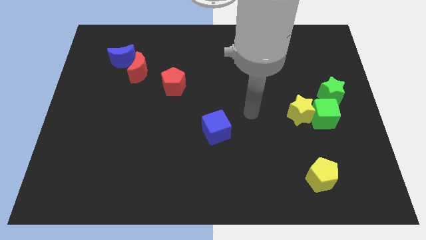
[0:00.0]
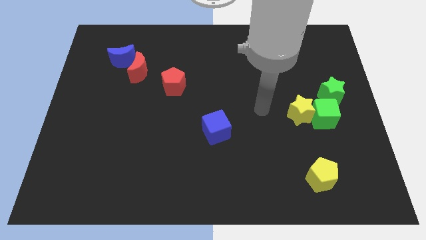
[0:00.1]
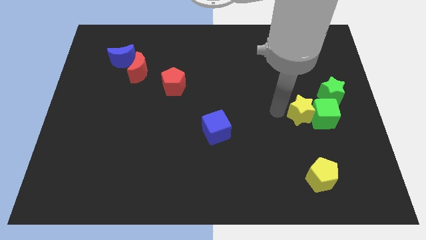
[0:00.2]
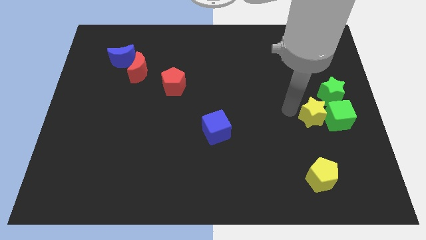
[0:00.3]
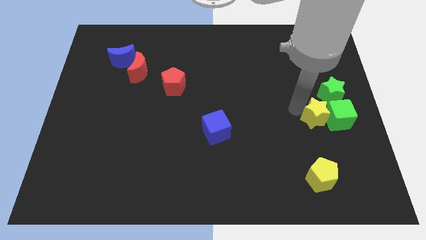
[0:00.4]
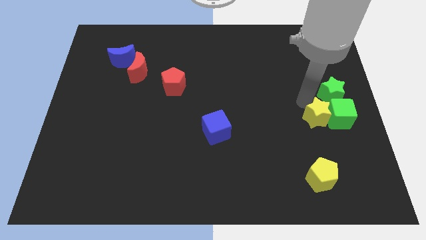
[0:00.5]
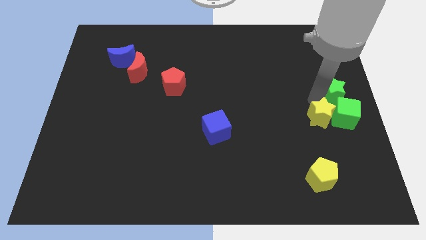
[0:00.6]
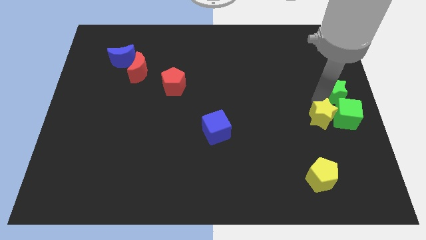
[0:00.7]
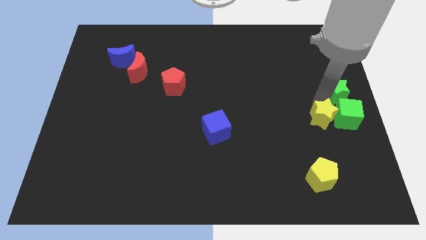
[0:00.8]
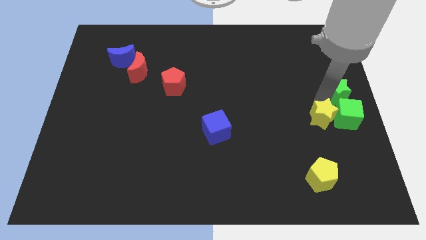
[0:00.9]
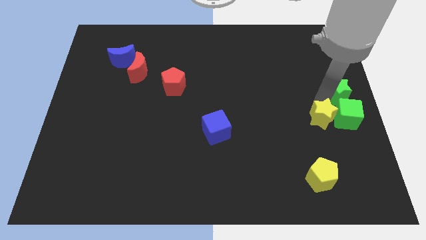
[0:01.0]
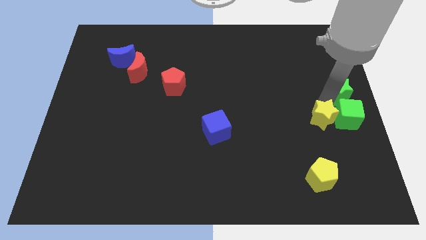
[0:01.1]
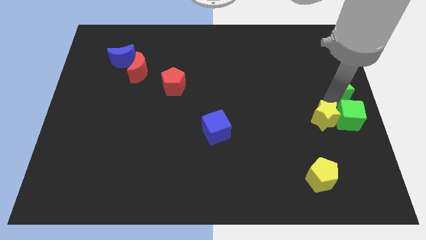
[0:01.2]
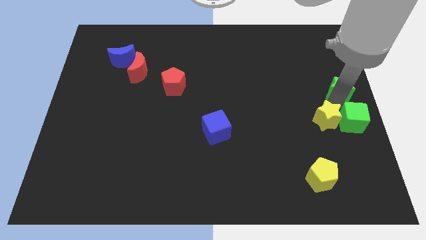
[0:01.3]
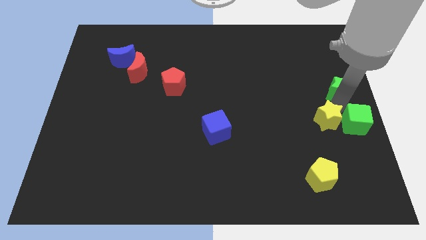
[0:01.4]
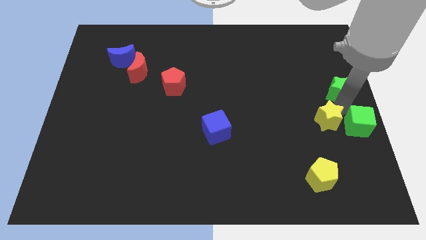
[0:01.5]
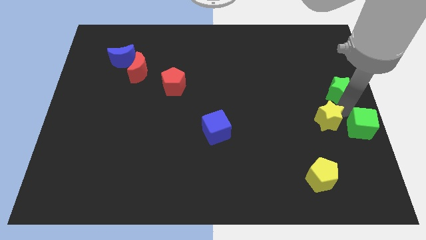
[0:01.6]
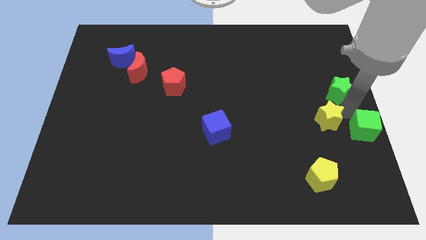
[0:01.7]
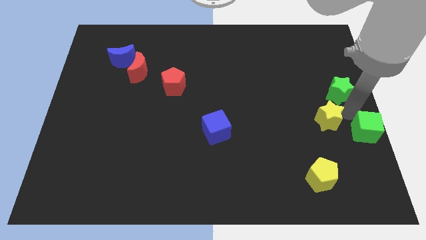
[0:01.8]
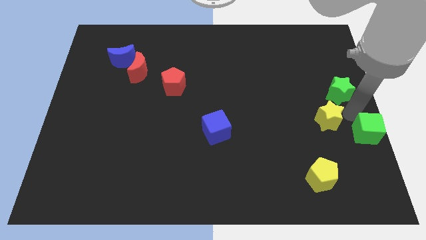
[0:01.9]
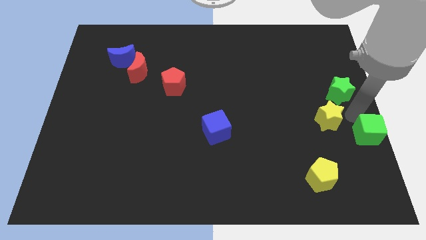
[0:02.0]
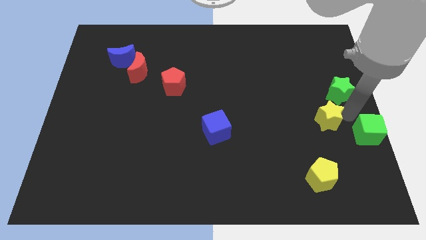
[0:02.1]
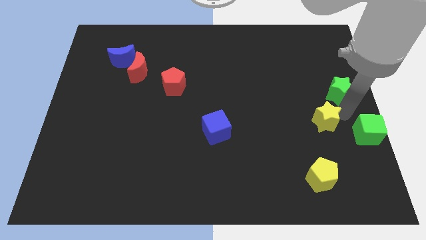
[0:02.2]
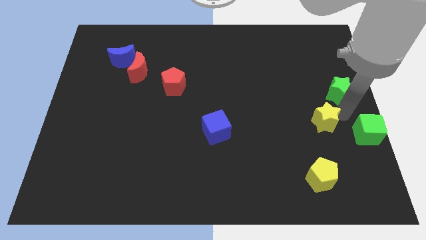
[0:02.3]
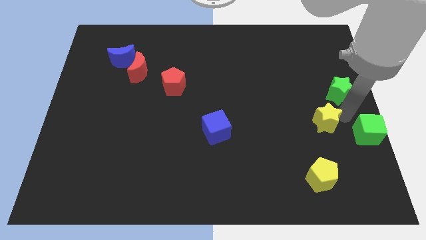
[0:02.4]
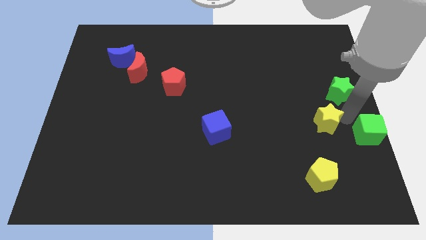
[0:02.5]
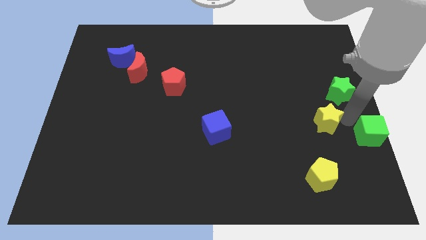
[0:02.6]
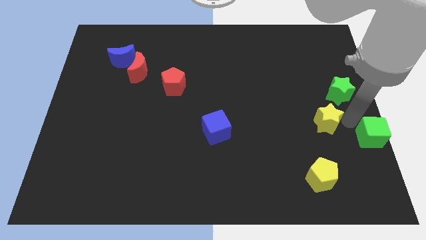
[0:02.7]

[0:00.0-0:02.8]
move the green cube away from the yellow star and green star

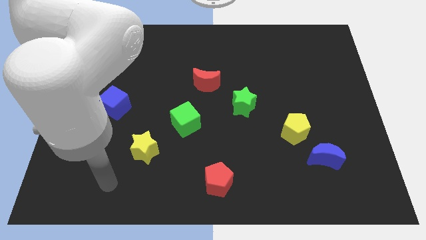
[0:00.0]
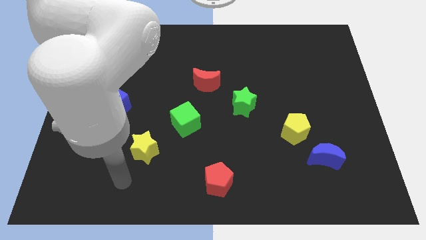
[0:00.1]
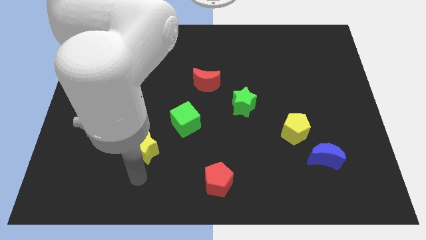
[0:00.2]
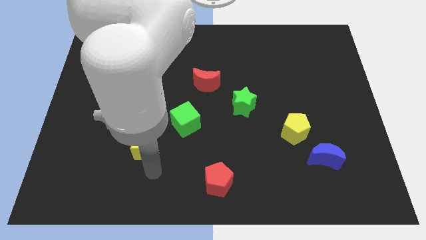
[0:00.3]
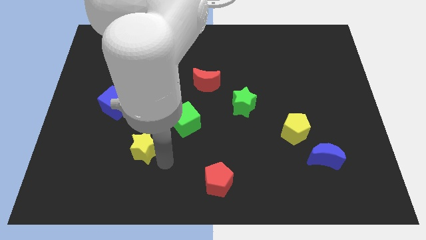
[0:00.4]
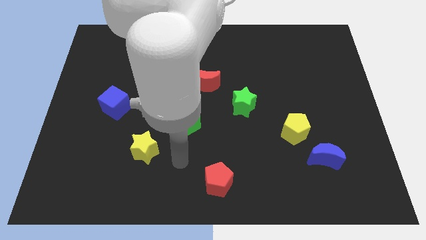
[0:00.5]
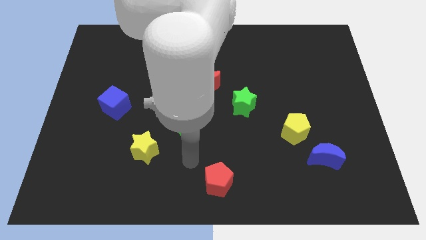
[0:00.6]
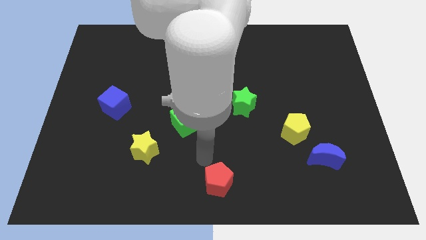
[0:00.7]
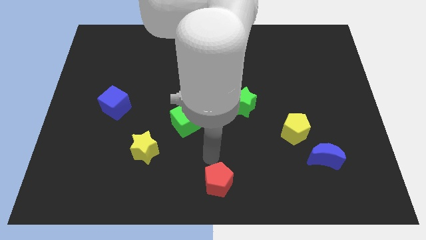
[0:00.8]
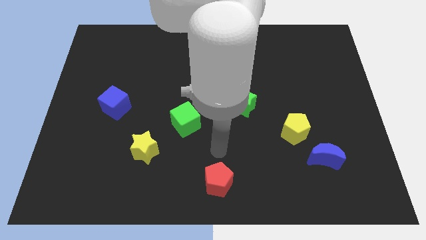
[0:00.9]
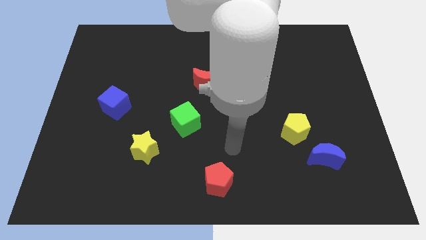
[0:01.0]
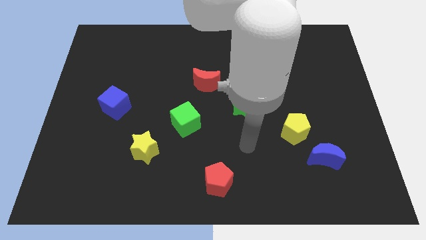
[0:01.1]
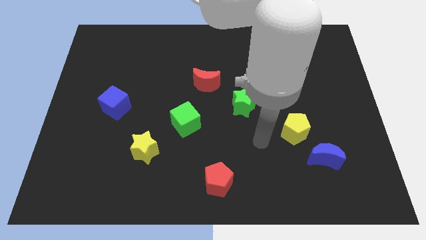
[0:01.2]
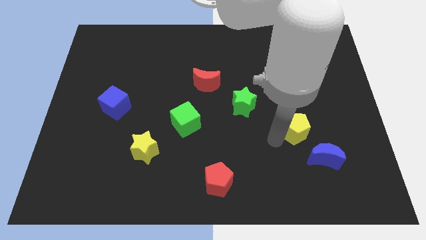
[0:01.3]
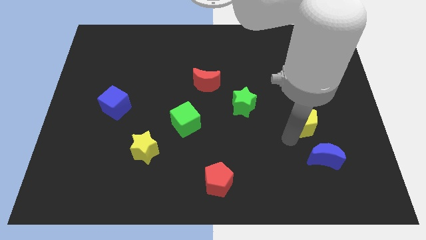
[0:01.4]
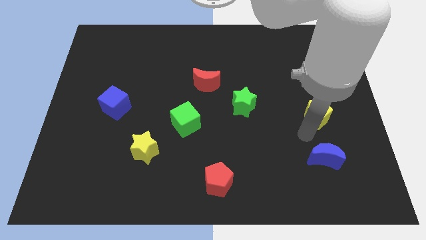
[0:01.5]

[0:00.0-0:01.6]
pull the blue moon apart from the yellow pentagon

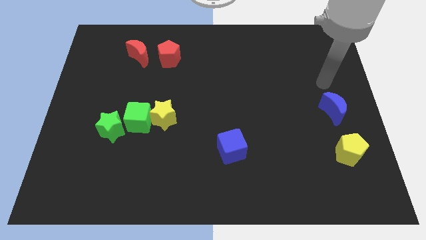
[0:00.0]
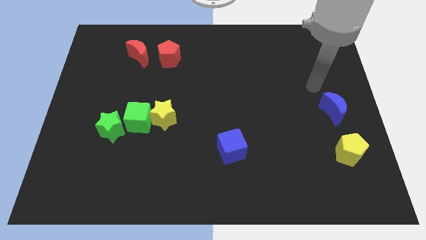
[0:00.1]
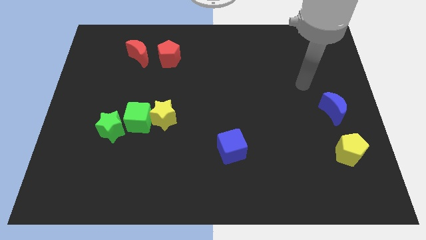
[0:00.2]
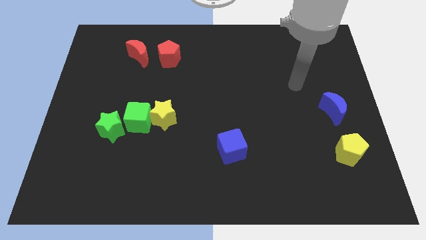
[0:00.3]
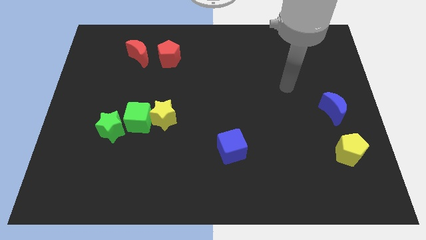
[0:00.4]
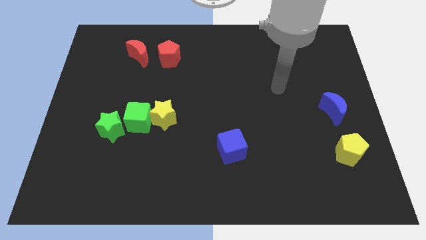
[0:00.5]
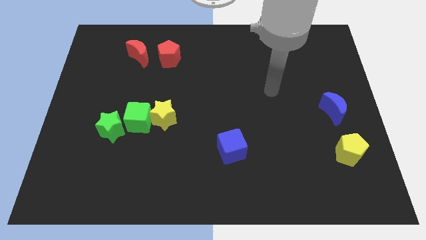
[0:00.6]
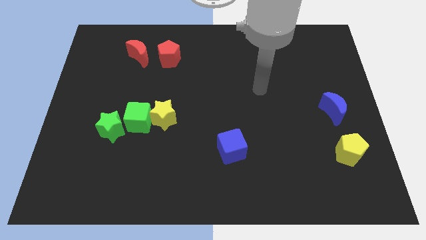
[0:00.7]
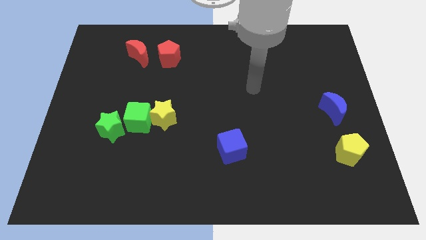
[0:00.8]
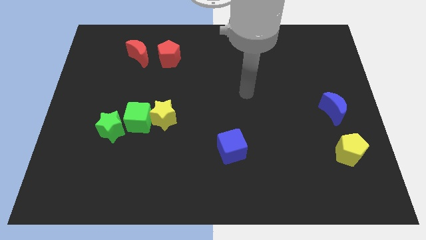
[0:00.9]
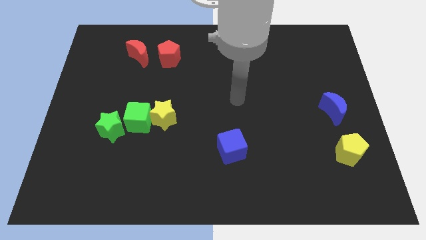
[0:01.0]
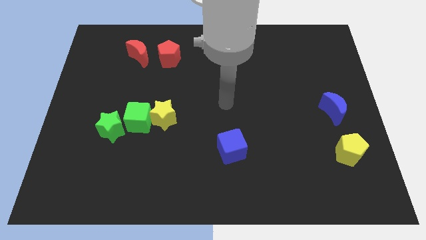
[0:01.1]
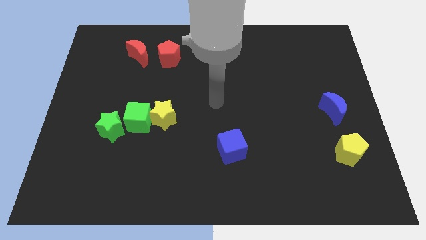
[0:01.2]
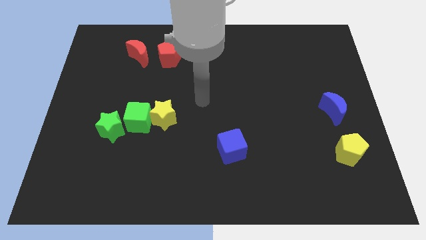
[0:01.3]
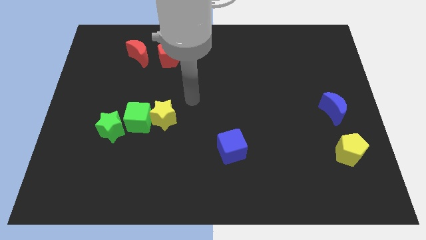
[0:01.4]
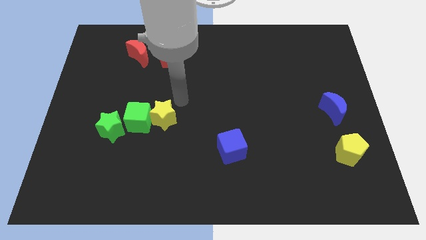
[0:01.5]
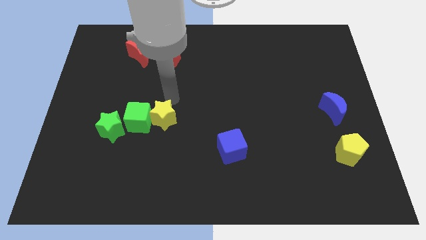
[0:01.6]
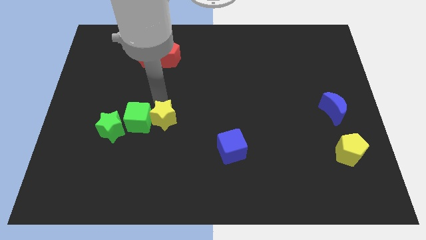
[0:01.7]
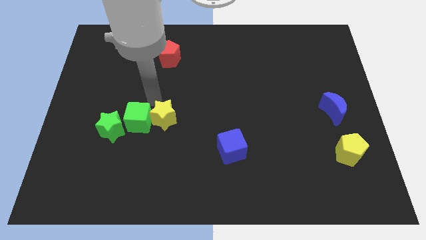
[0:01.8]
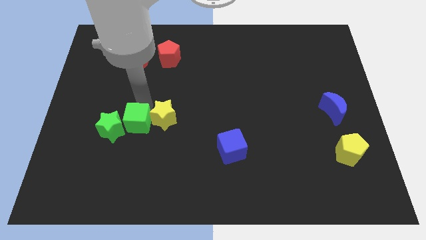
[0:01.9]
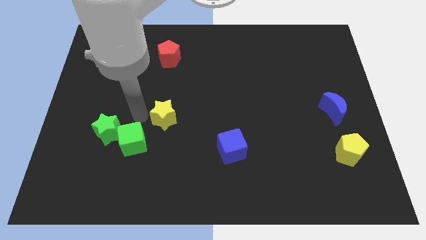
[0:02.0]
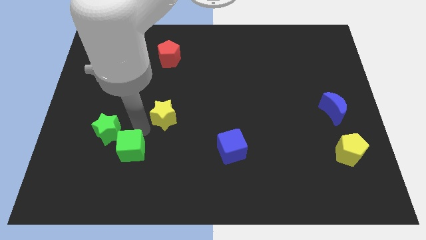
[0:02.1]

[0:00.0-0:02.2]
separate the yellow star from the green cube

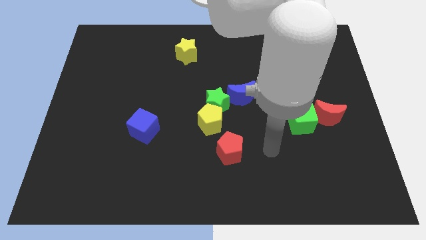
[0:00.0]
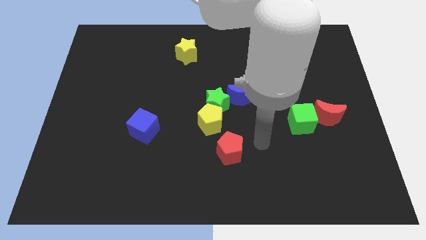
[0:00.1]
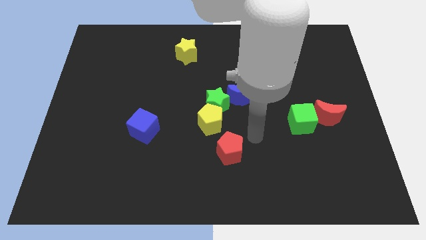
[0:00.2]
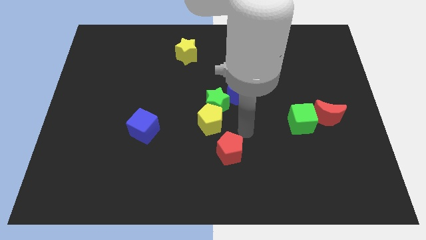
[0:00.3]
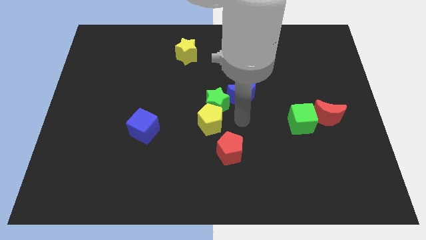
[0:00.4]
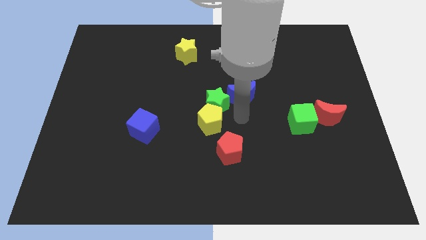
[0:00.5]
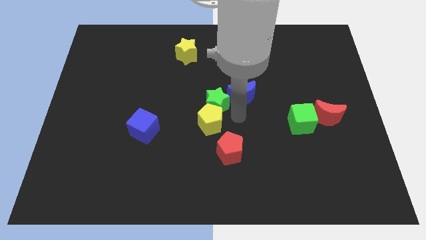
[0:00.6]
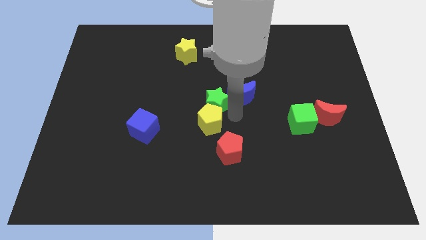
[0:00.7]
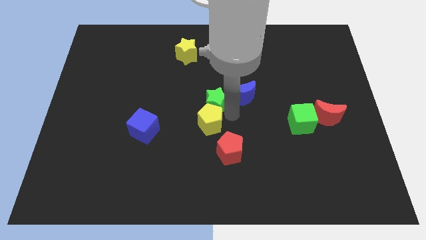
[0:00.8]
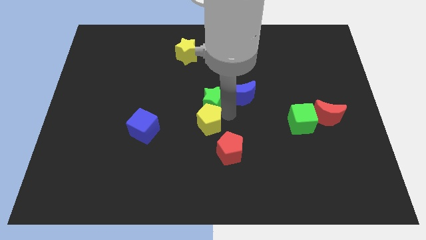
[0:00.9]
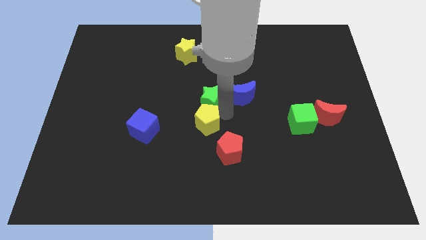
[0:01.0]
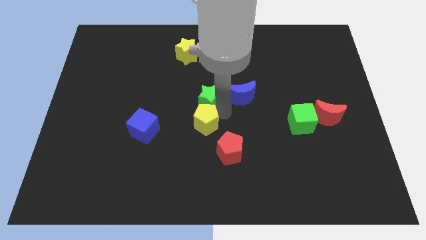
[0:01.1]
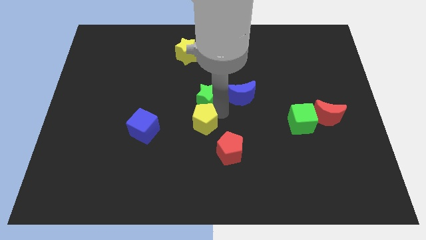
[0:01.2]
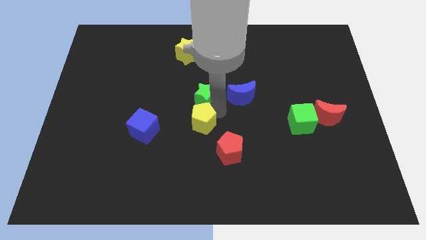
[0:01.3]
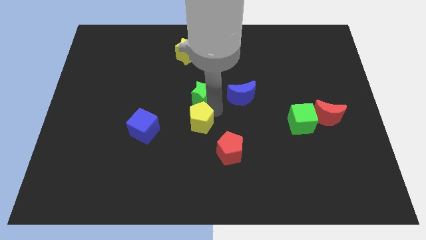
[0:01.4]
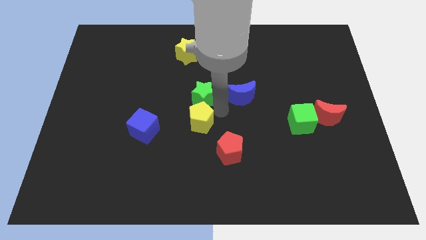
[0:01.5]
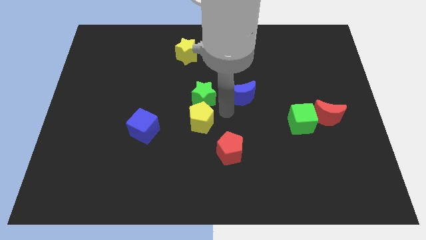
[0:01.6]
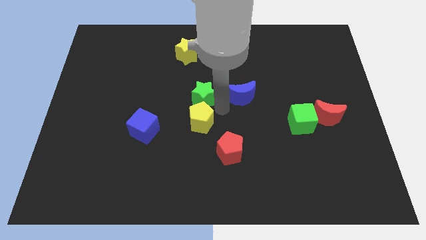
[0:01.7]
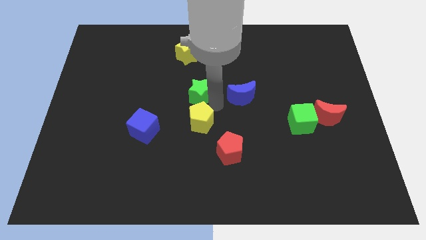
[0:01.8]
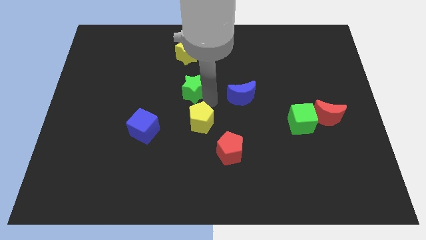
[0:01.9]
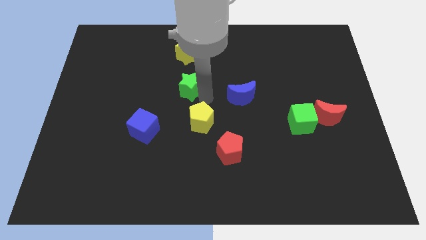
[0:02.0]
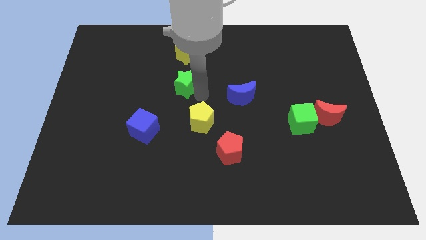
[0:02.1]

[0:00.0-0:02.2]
separate the green star from the yellow pentagon and blue moon

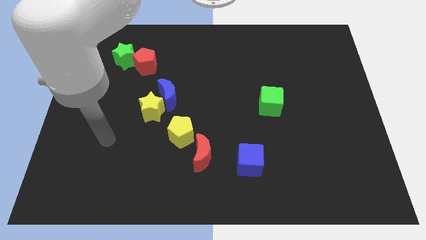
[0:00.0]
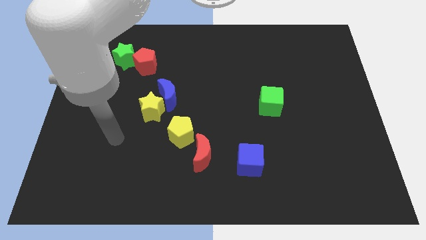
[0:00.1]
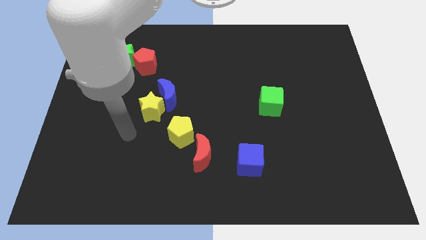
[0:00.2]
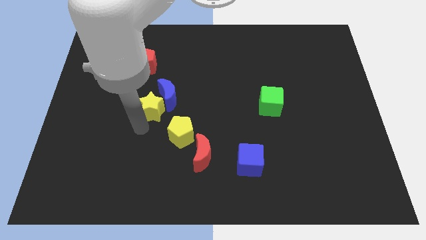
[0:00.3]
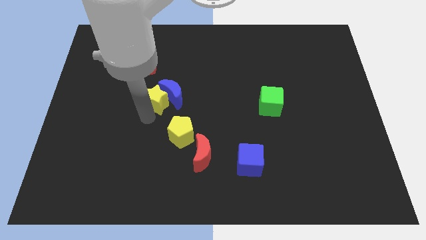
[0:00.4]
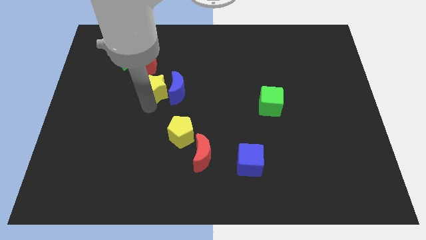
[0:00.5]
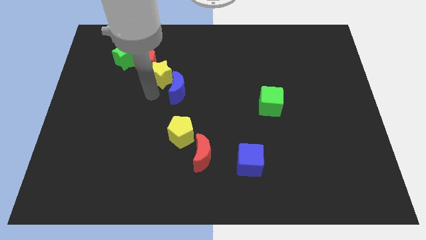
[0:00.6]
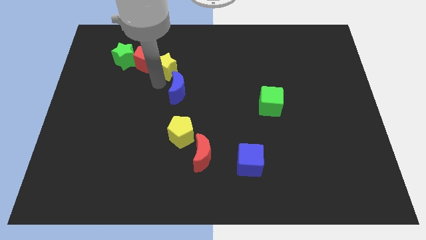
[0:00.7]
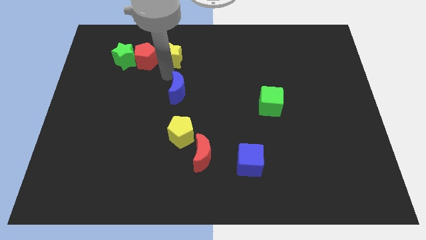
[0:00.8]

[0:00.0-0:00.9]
pull the blue moon apart from the yellow star
